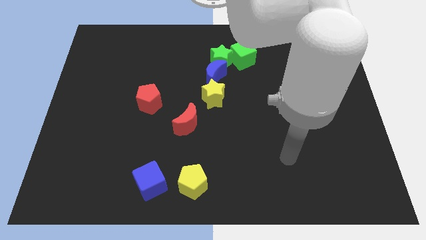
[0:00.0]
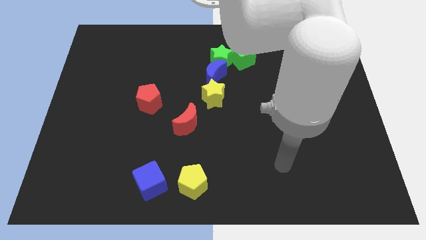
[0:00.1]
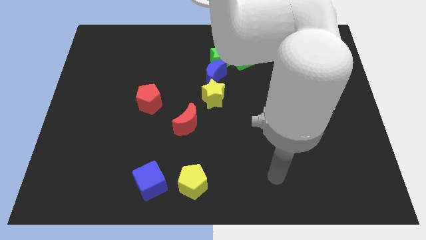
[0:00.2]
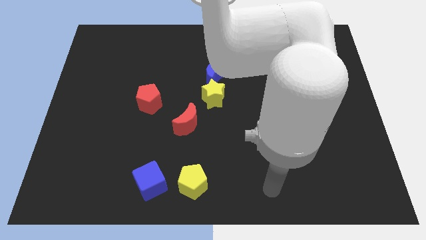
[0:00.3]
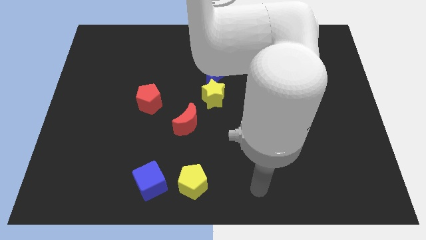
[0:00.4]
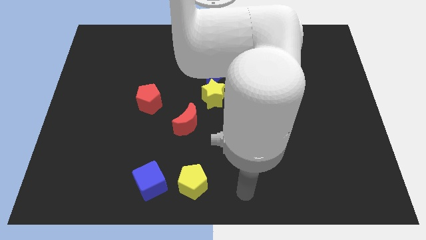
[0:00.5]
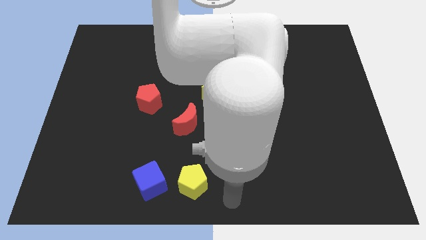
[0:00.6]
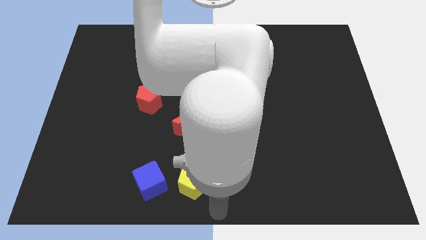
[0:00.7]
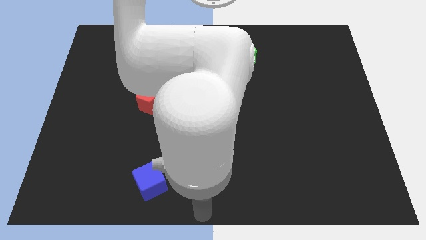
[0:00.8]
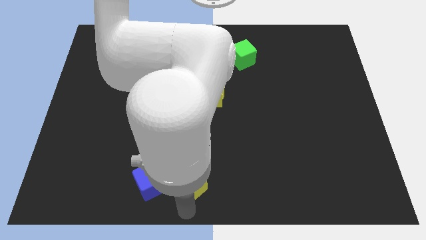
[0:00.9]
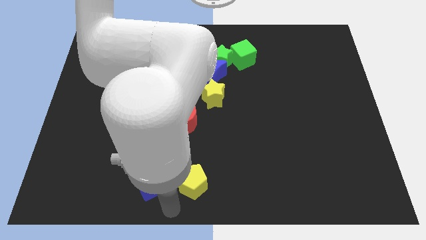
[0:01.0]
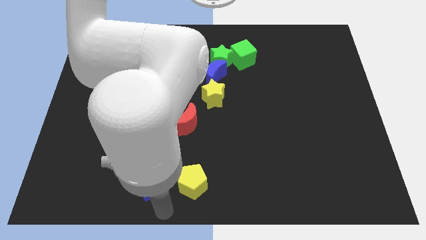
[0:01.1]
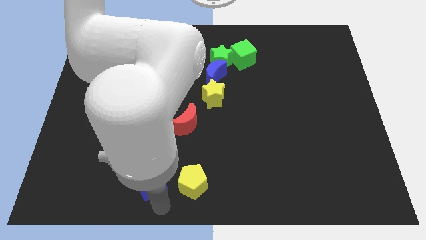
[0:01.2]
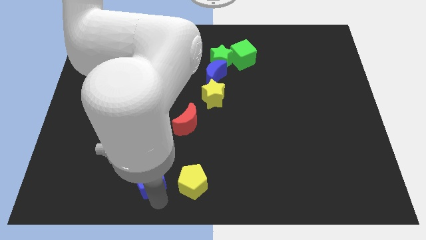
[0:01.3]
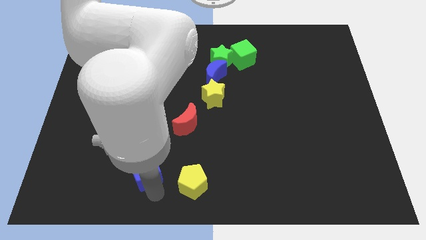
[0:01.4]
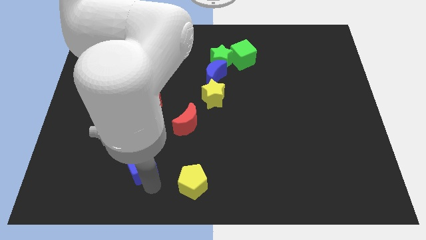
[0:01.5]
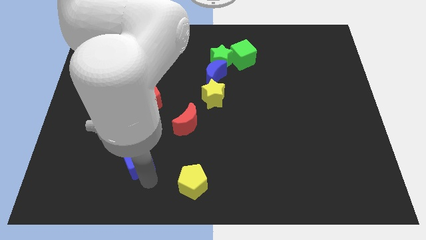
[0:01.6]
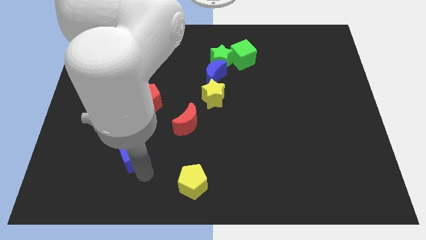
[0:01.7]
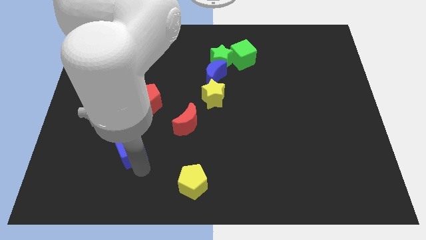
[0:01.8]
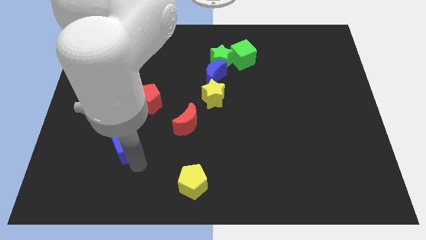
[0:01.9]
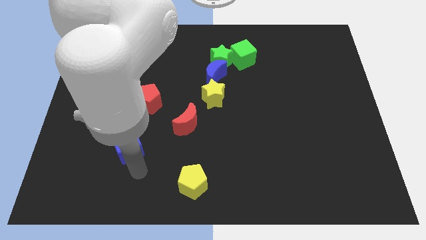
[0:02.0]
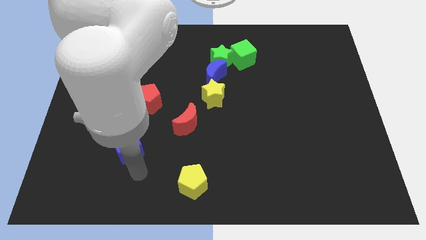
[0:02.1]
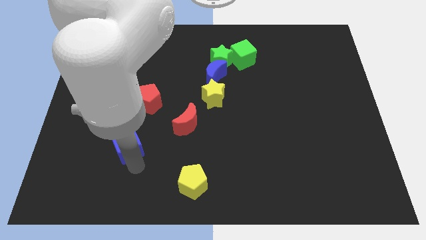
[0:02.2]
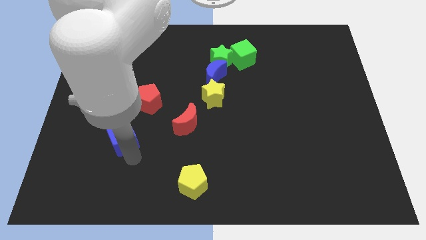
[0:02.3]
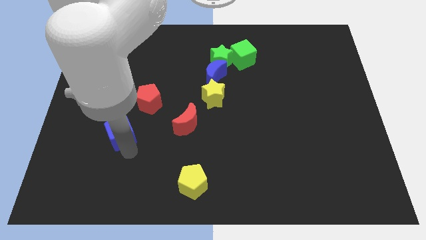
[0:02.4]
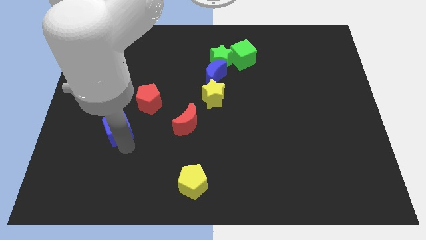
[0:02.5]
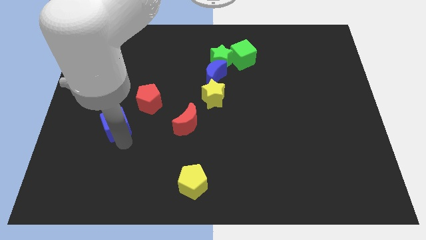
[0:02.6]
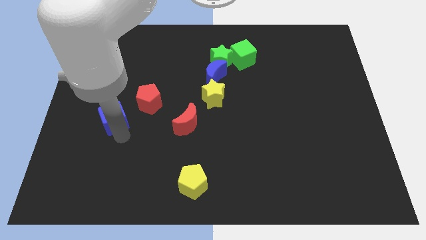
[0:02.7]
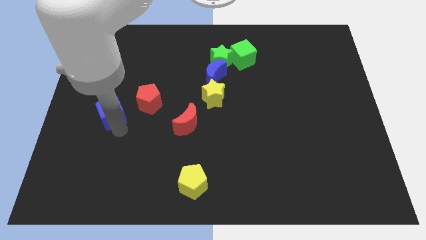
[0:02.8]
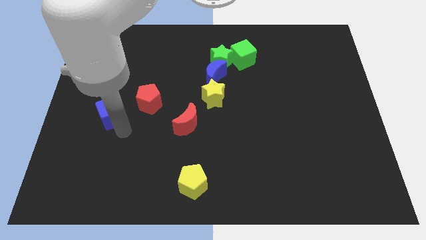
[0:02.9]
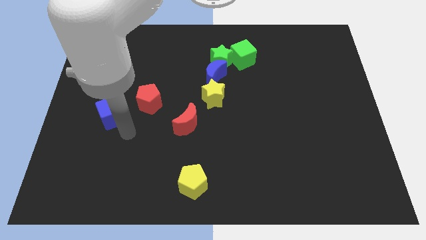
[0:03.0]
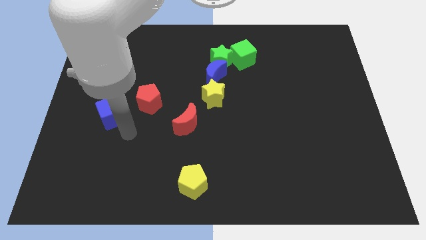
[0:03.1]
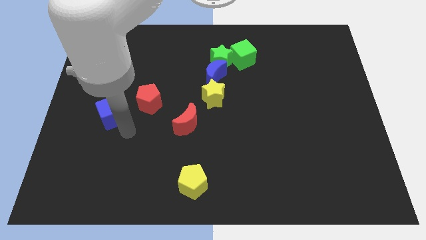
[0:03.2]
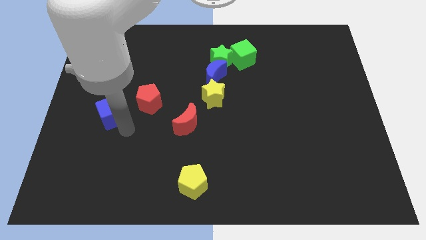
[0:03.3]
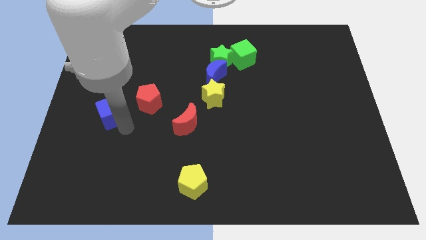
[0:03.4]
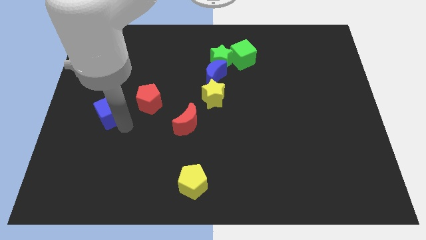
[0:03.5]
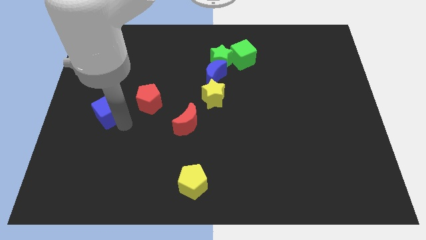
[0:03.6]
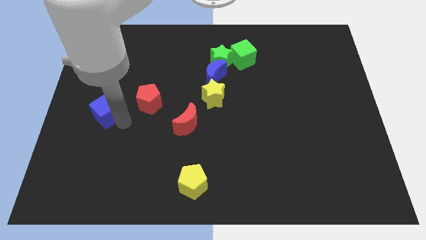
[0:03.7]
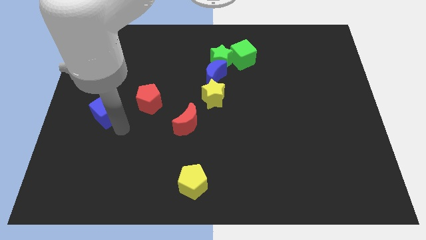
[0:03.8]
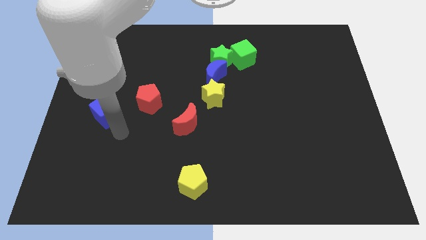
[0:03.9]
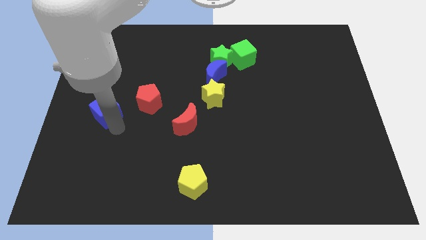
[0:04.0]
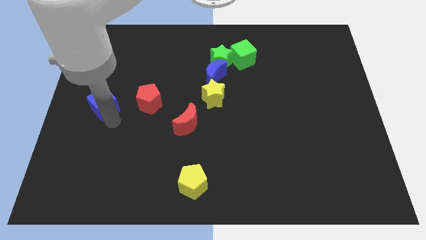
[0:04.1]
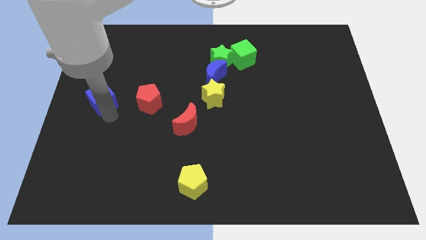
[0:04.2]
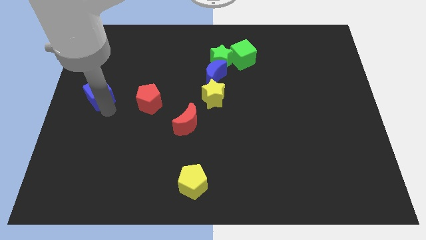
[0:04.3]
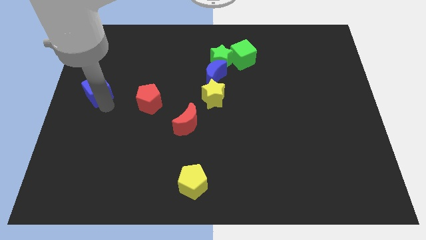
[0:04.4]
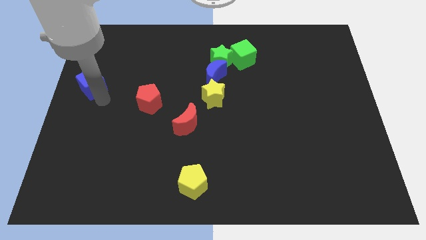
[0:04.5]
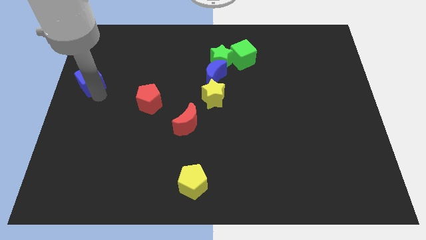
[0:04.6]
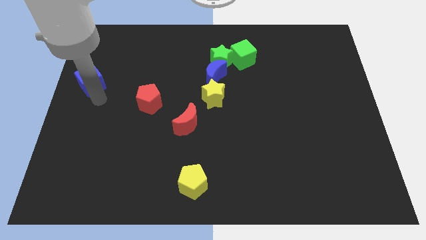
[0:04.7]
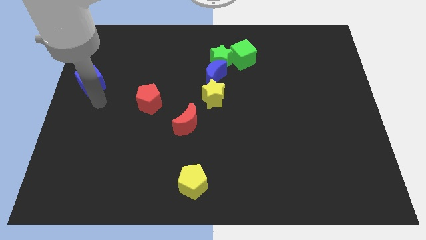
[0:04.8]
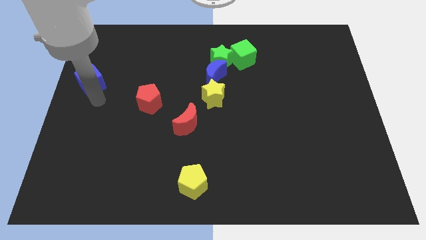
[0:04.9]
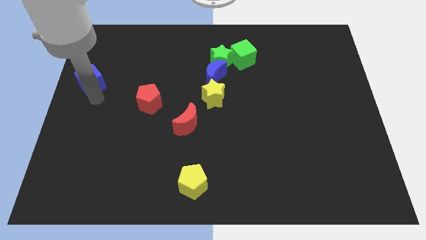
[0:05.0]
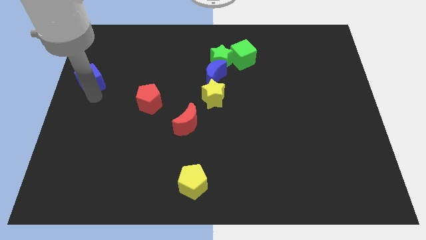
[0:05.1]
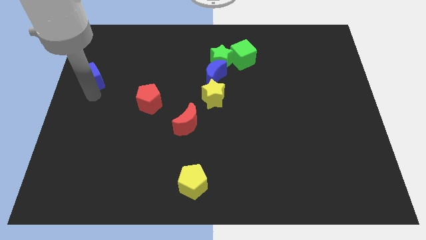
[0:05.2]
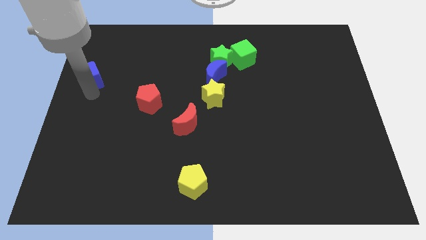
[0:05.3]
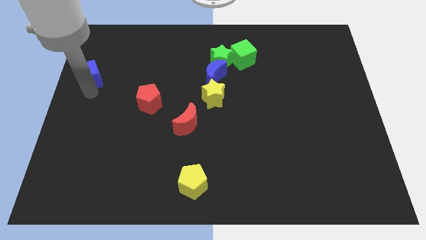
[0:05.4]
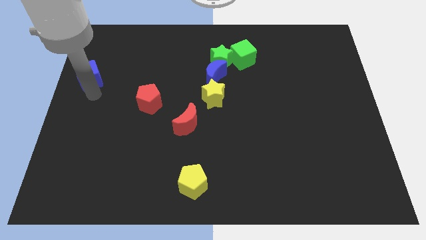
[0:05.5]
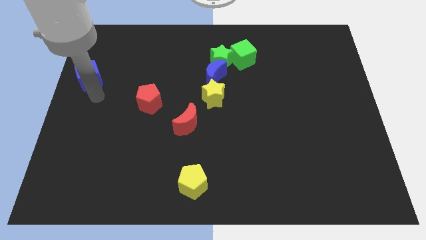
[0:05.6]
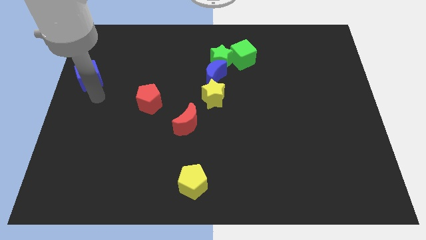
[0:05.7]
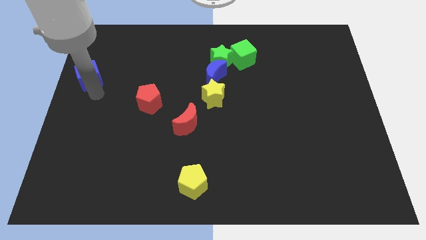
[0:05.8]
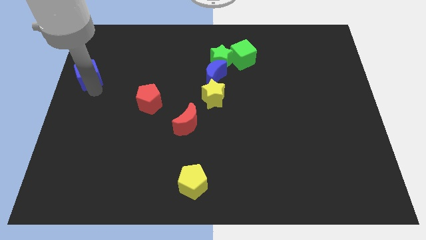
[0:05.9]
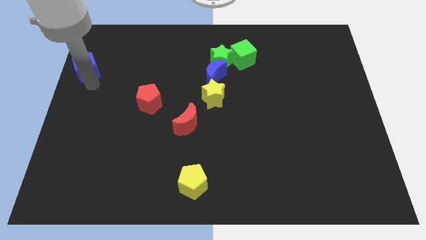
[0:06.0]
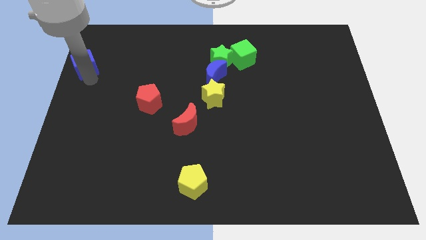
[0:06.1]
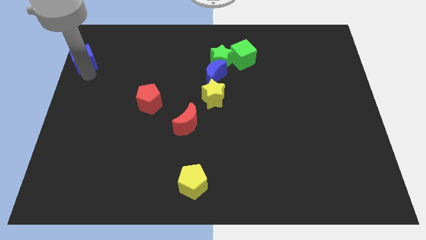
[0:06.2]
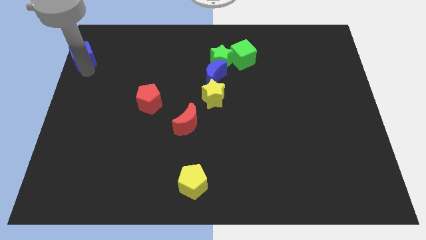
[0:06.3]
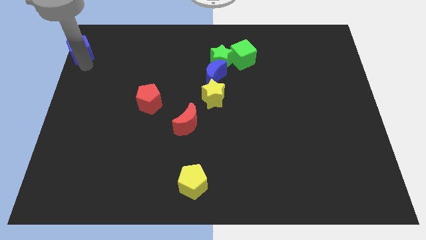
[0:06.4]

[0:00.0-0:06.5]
slide the blue cube to the top left
